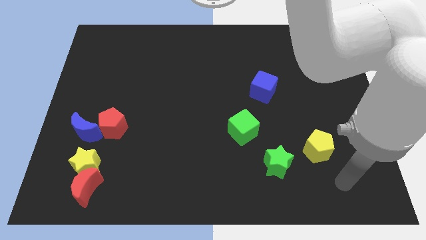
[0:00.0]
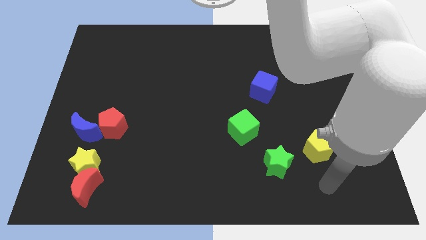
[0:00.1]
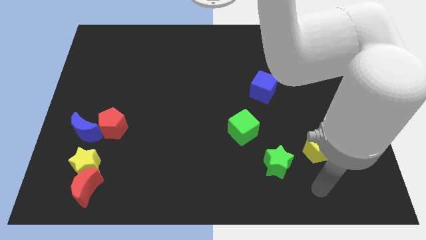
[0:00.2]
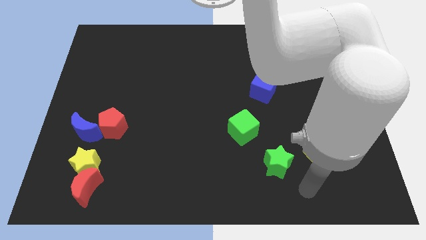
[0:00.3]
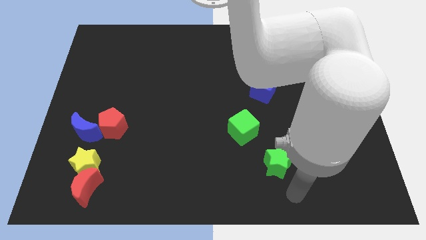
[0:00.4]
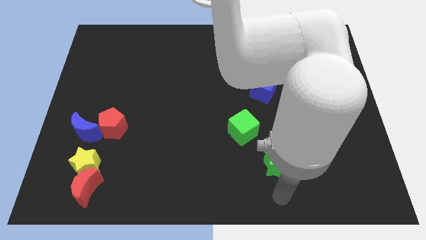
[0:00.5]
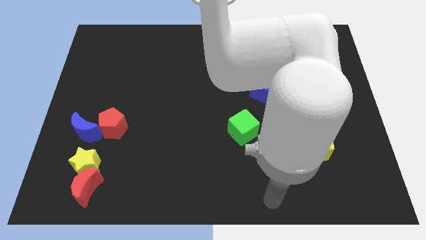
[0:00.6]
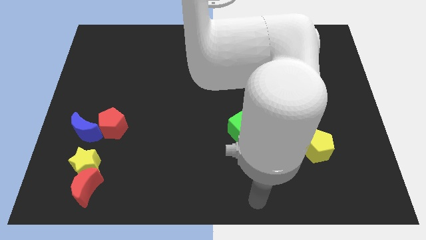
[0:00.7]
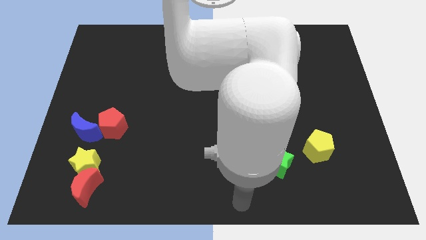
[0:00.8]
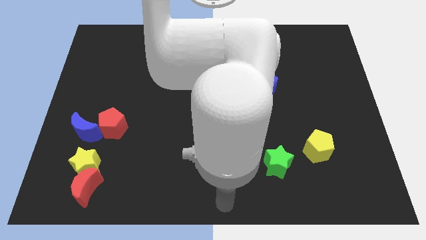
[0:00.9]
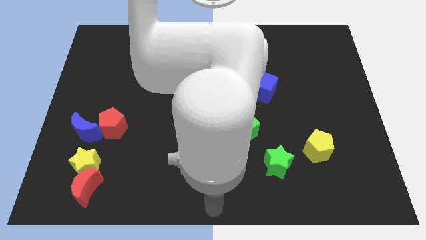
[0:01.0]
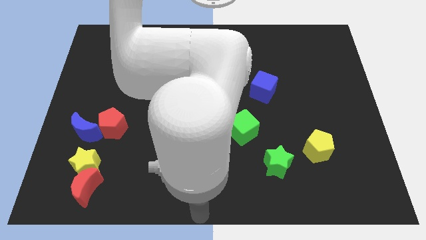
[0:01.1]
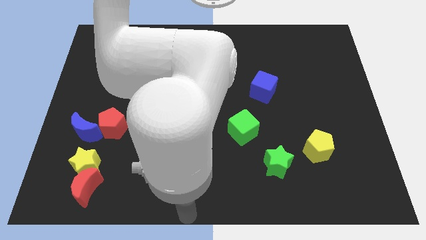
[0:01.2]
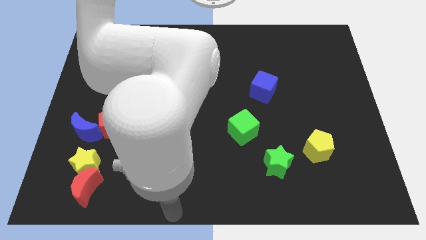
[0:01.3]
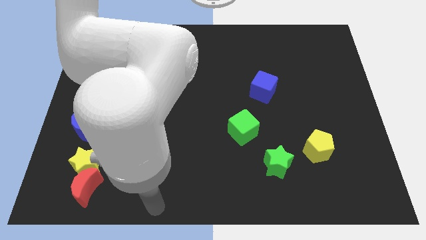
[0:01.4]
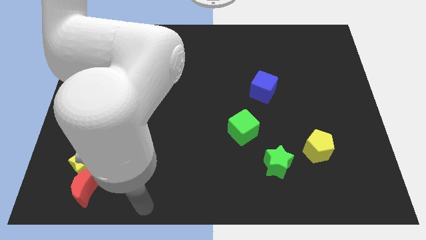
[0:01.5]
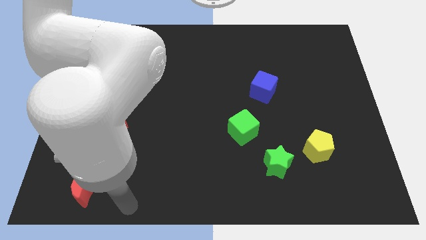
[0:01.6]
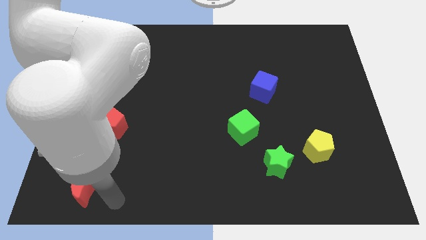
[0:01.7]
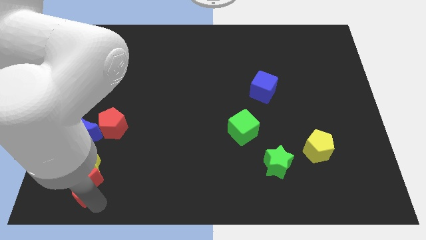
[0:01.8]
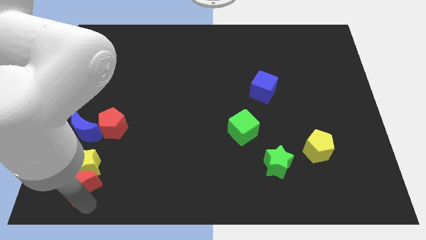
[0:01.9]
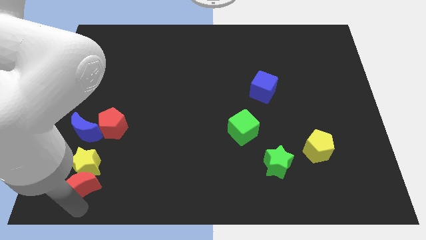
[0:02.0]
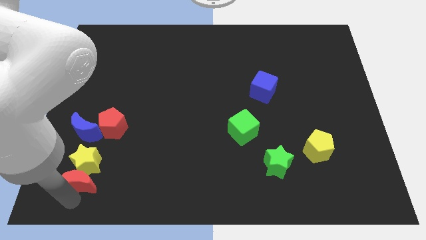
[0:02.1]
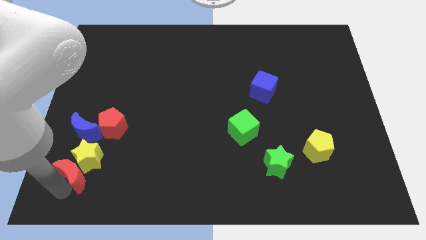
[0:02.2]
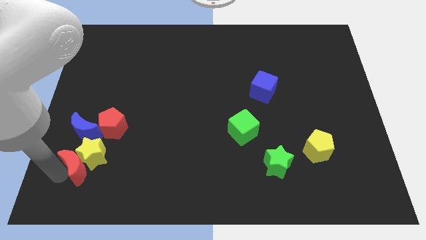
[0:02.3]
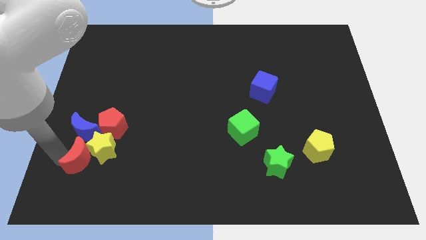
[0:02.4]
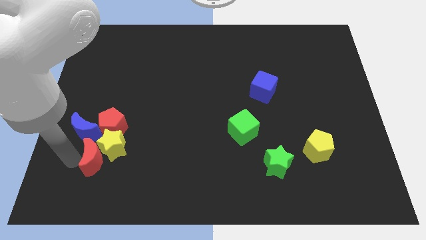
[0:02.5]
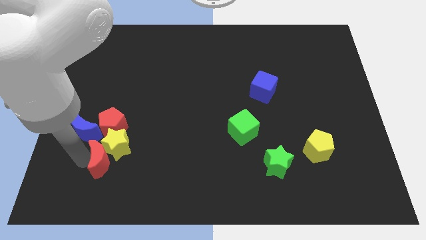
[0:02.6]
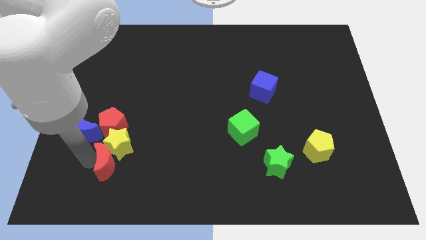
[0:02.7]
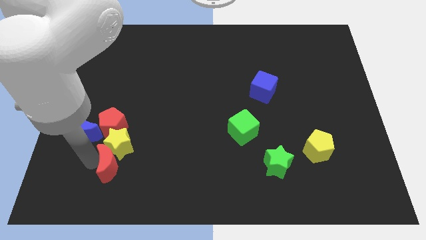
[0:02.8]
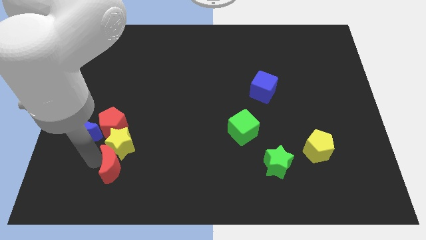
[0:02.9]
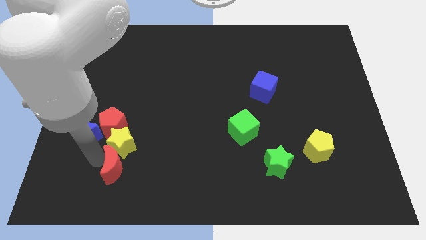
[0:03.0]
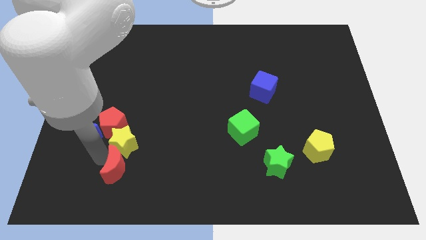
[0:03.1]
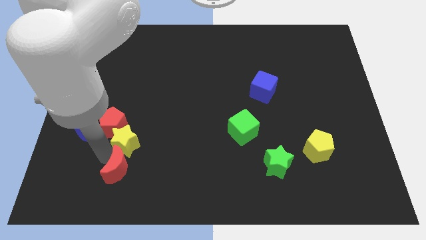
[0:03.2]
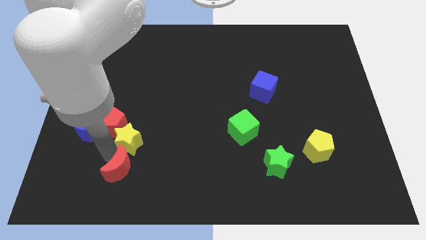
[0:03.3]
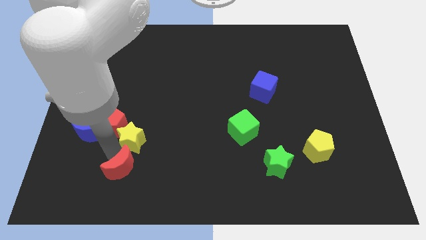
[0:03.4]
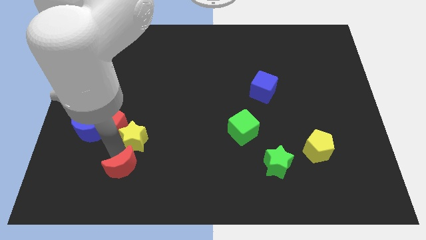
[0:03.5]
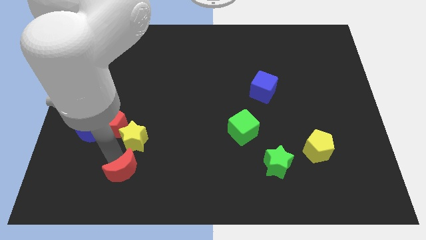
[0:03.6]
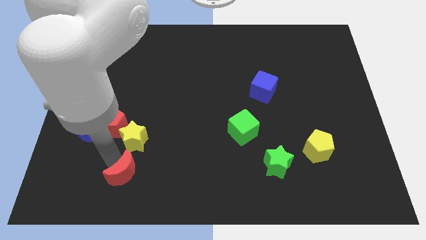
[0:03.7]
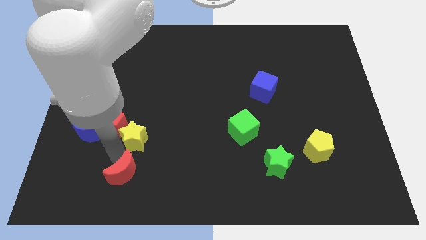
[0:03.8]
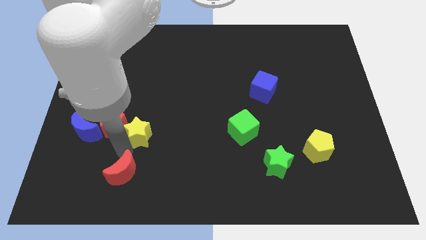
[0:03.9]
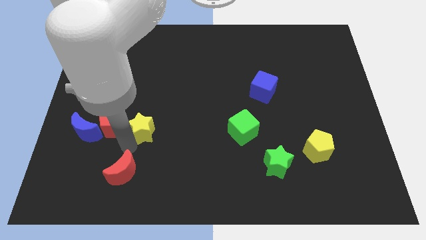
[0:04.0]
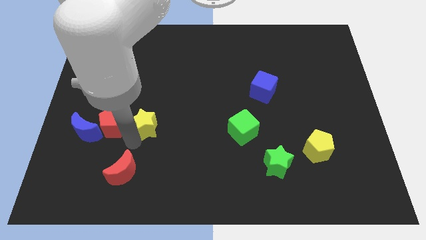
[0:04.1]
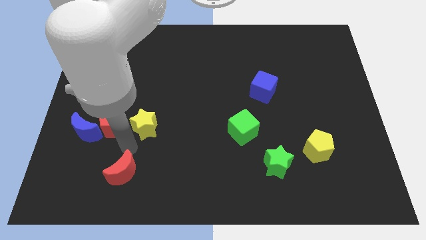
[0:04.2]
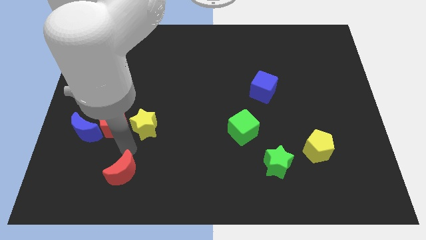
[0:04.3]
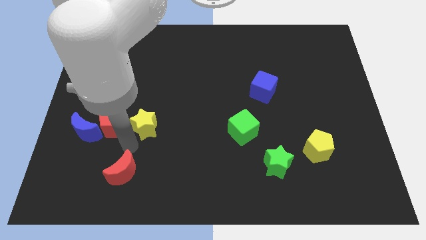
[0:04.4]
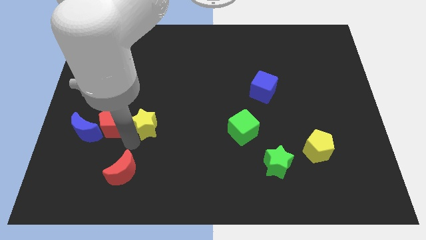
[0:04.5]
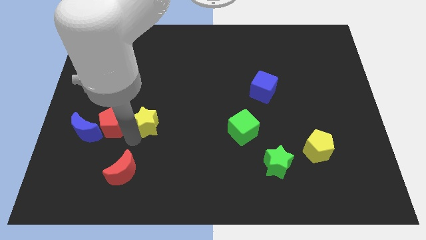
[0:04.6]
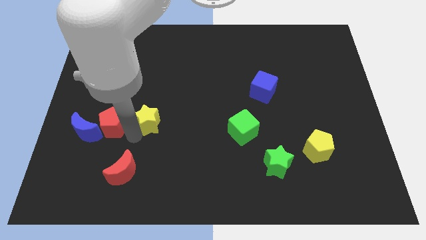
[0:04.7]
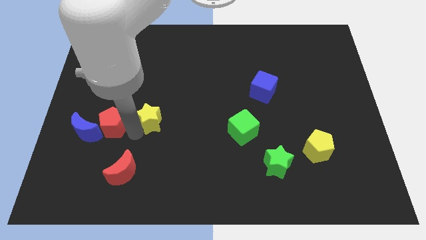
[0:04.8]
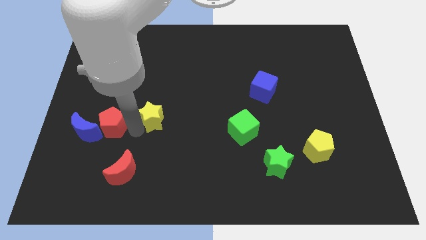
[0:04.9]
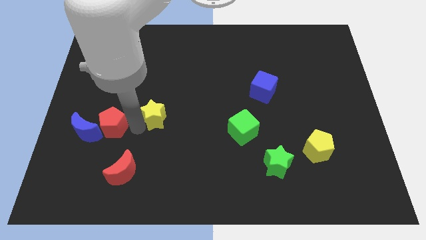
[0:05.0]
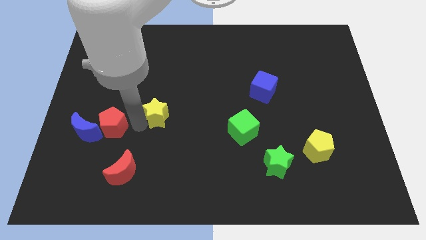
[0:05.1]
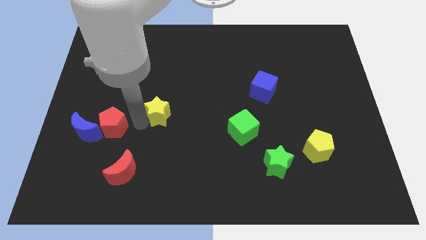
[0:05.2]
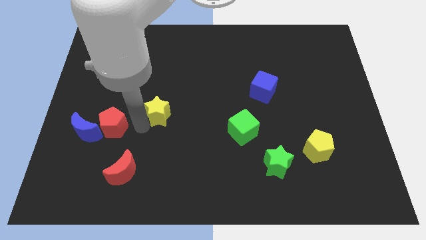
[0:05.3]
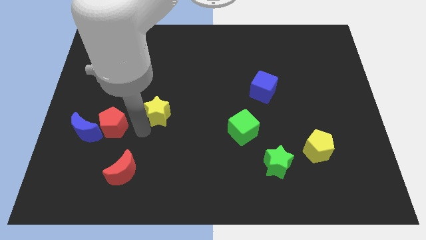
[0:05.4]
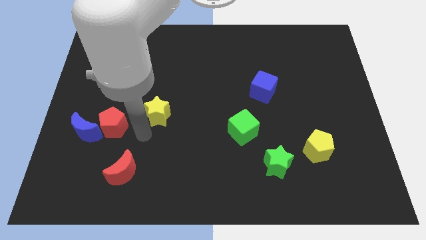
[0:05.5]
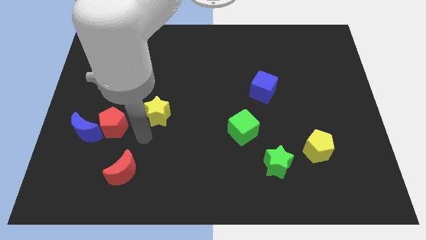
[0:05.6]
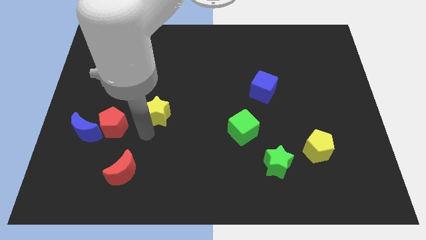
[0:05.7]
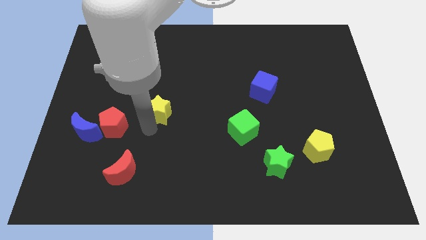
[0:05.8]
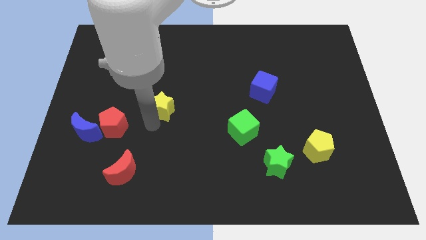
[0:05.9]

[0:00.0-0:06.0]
slide the yellow star up and to the right diagonally

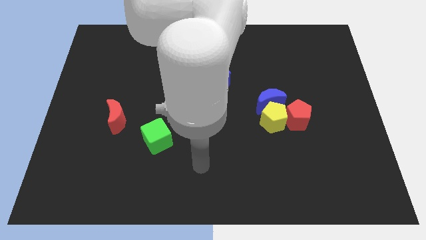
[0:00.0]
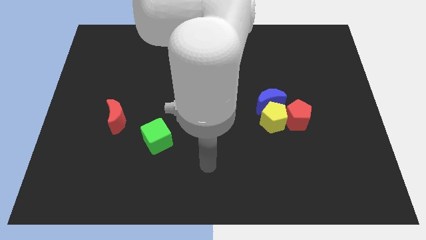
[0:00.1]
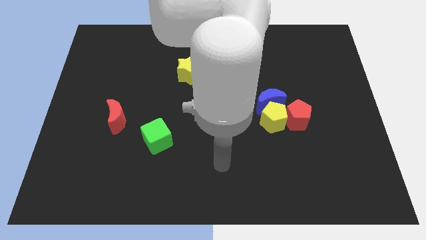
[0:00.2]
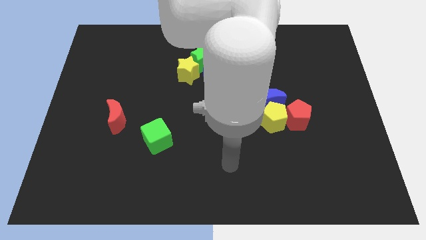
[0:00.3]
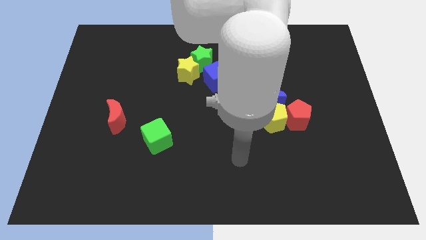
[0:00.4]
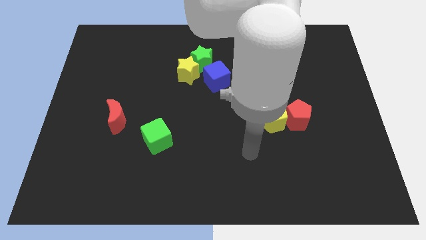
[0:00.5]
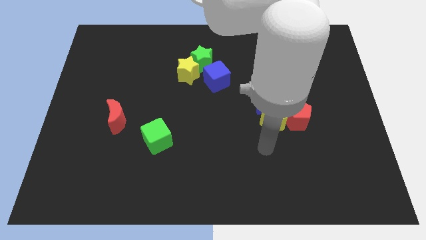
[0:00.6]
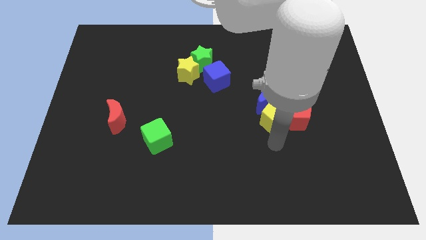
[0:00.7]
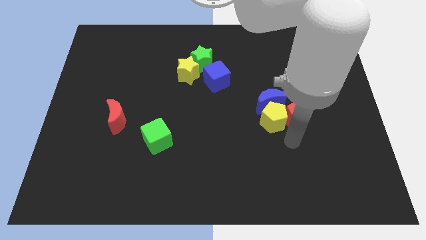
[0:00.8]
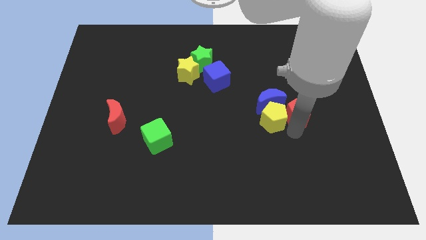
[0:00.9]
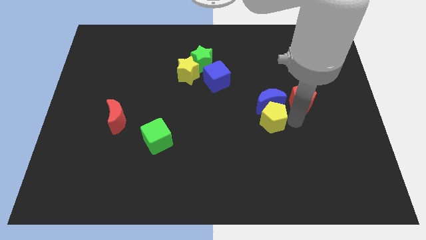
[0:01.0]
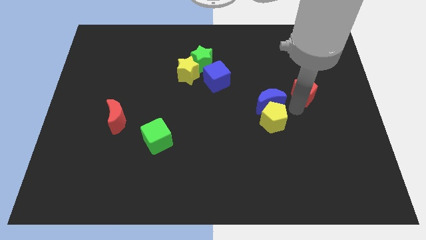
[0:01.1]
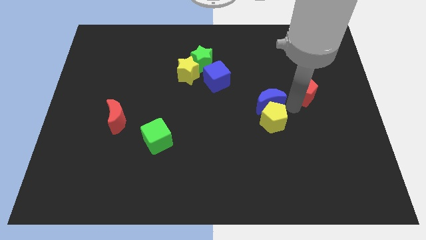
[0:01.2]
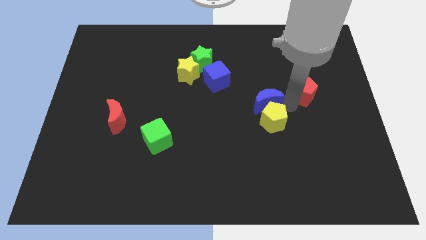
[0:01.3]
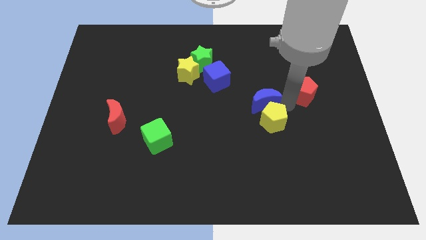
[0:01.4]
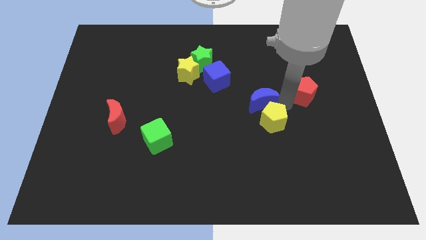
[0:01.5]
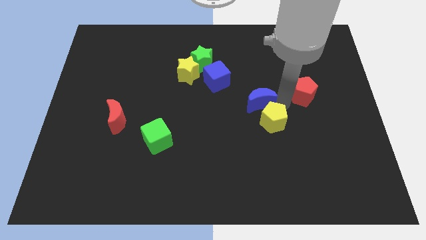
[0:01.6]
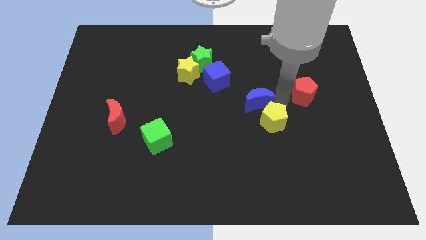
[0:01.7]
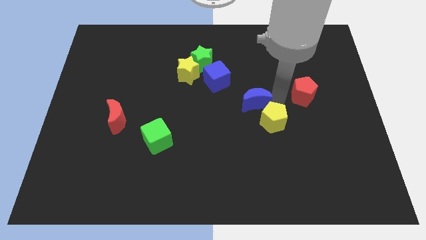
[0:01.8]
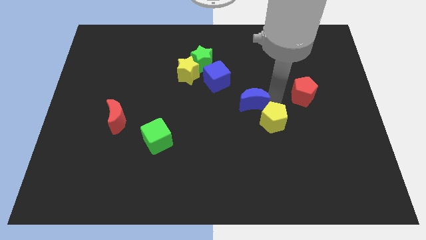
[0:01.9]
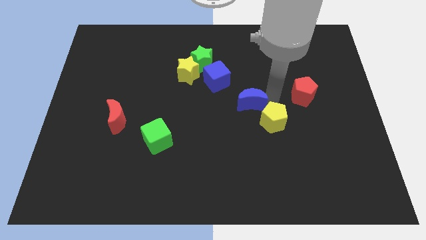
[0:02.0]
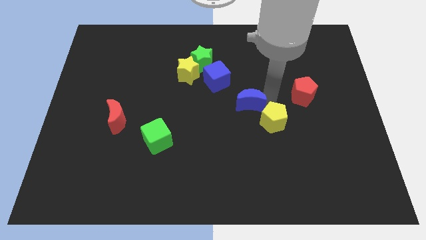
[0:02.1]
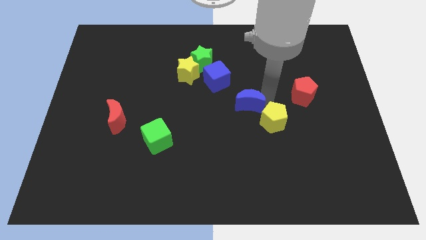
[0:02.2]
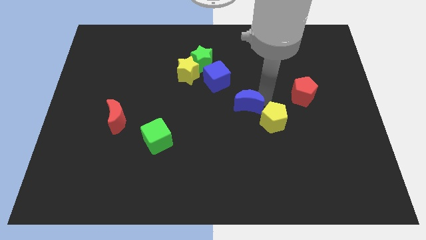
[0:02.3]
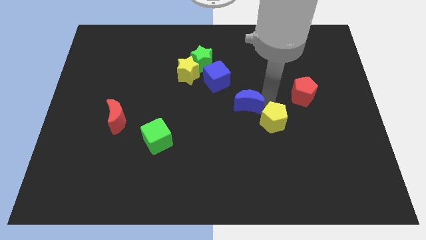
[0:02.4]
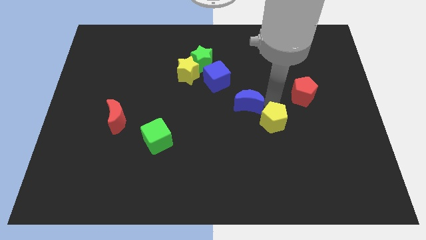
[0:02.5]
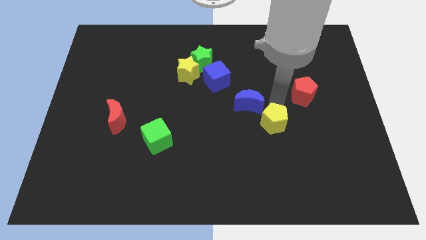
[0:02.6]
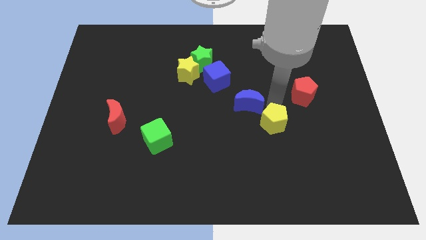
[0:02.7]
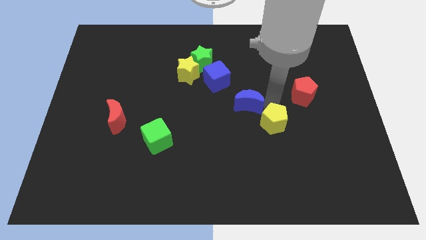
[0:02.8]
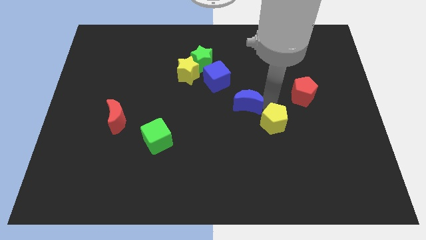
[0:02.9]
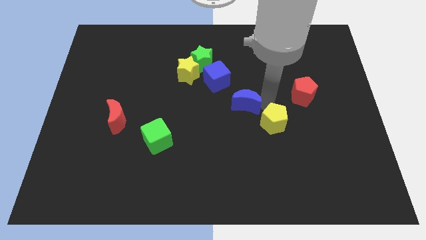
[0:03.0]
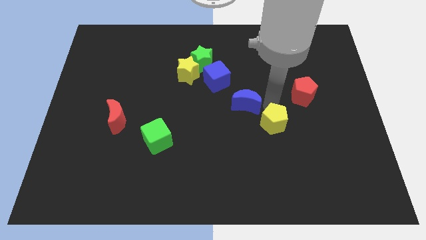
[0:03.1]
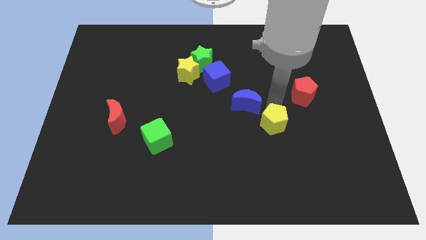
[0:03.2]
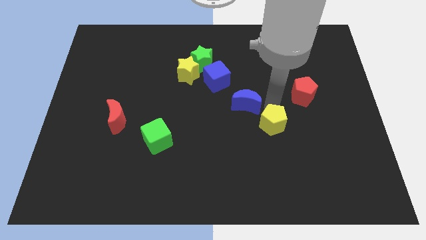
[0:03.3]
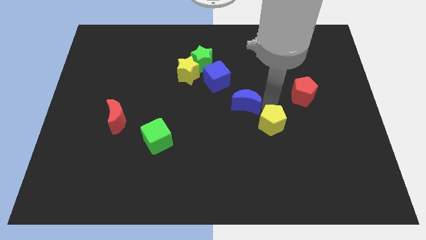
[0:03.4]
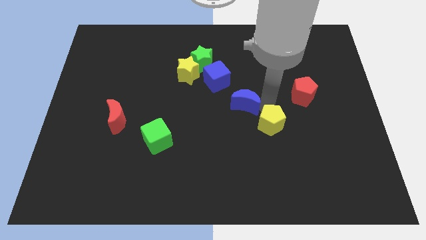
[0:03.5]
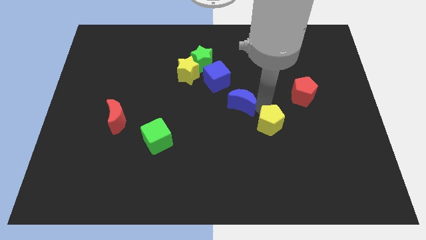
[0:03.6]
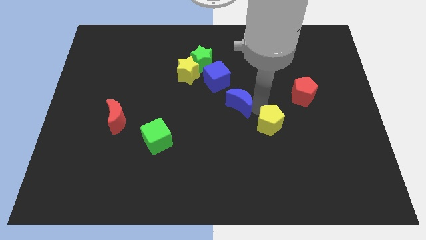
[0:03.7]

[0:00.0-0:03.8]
move the blue moon slightly to the left
